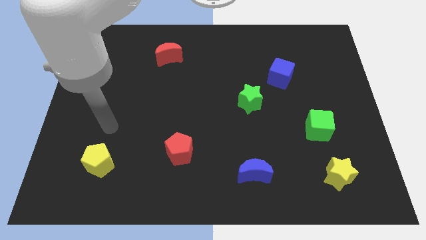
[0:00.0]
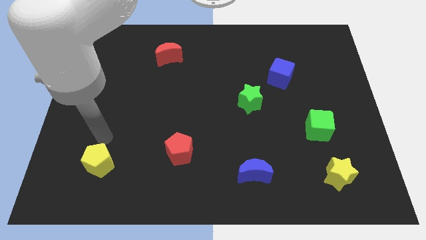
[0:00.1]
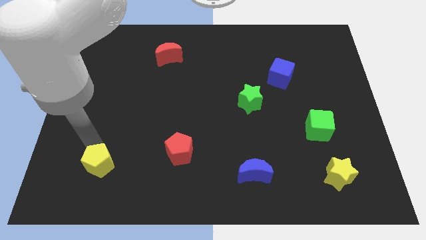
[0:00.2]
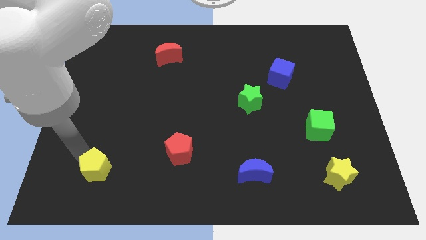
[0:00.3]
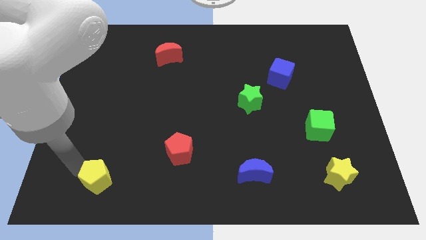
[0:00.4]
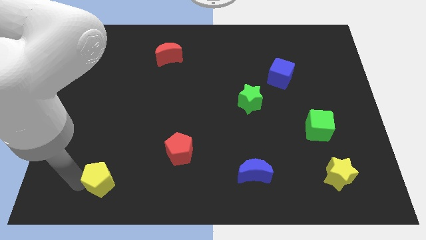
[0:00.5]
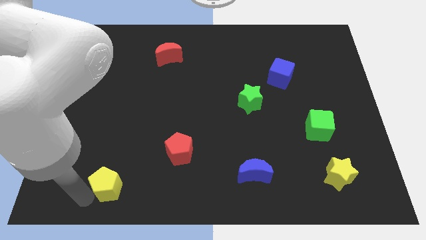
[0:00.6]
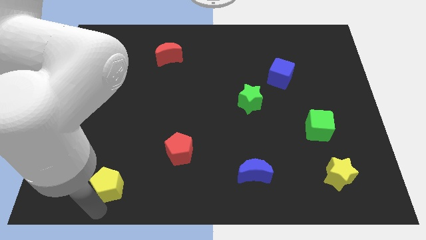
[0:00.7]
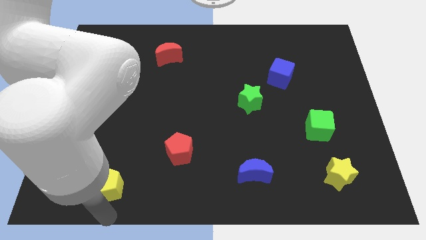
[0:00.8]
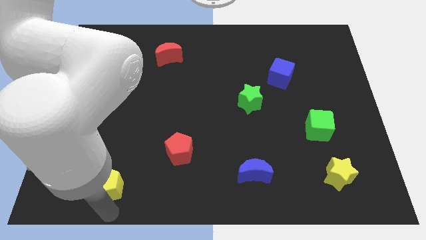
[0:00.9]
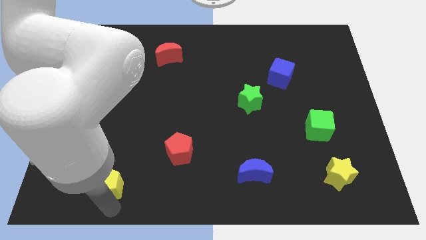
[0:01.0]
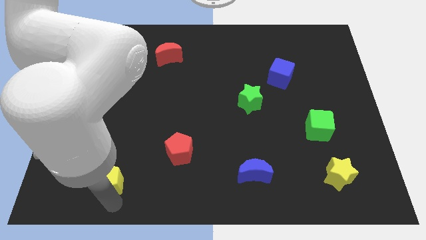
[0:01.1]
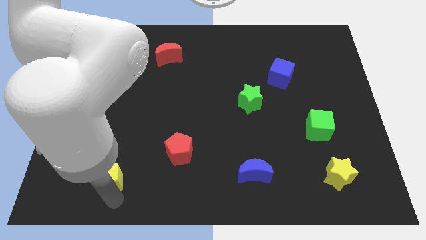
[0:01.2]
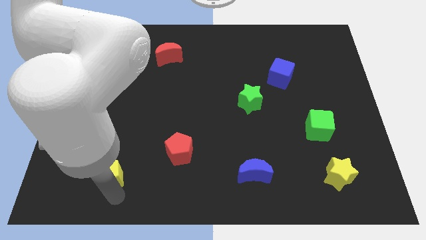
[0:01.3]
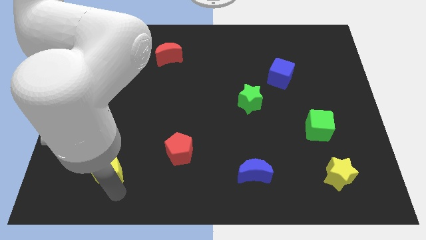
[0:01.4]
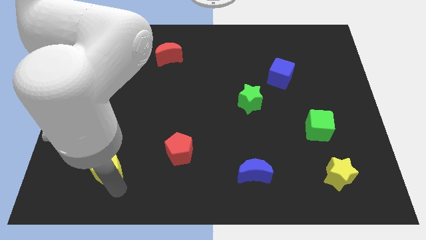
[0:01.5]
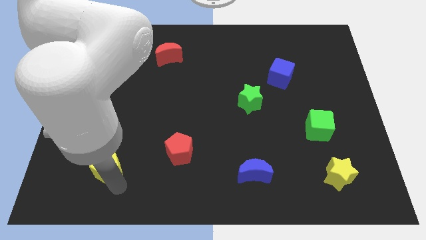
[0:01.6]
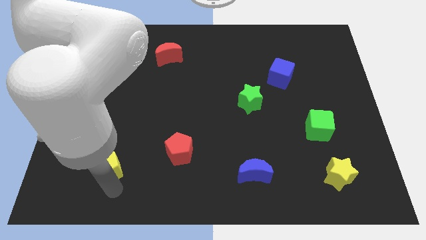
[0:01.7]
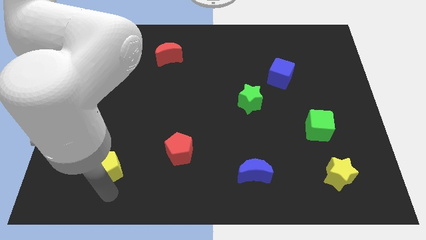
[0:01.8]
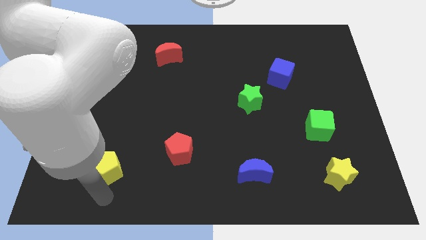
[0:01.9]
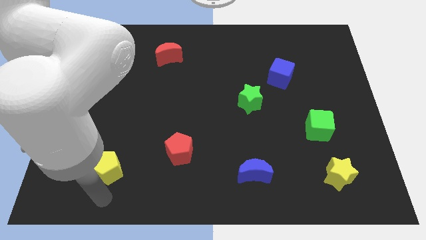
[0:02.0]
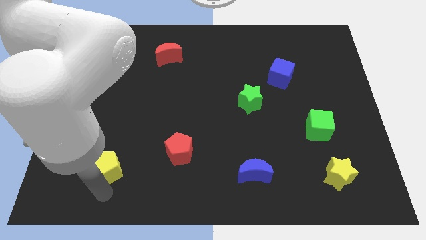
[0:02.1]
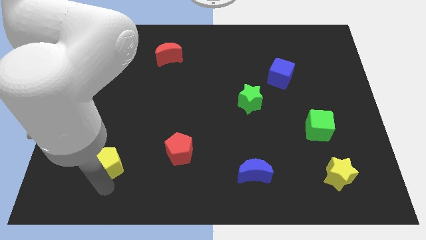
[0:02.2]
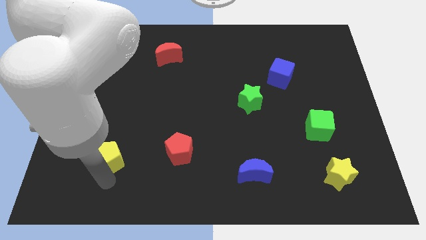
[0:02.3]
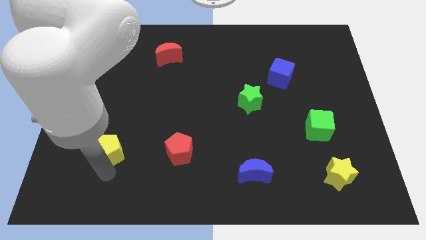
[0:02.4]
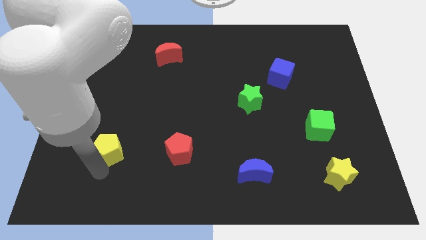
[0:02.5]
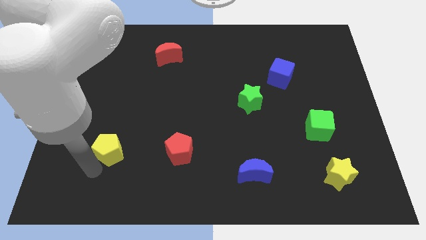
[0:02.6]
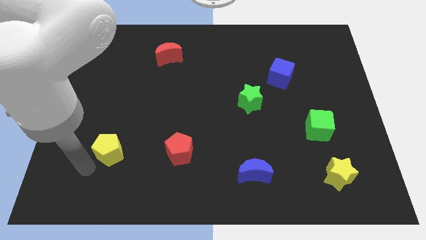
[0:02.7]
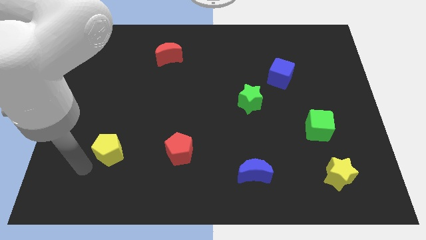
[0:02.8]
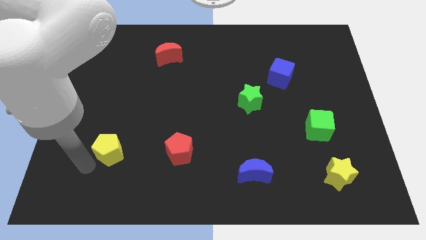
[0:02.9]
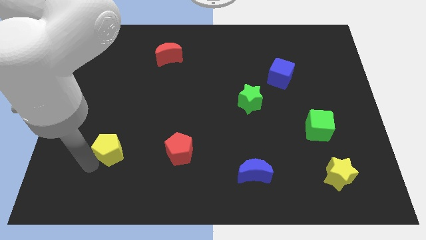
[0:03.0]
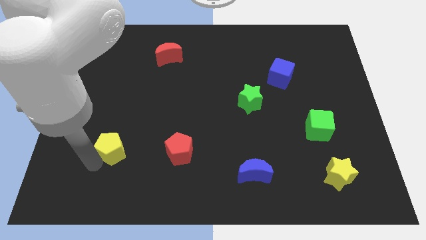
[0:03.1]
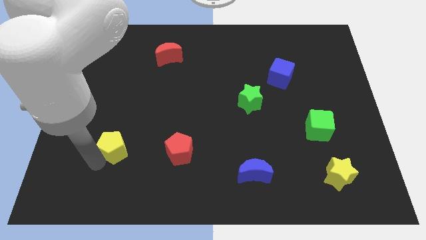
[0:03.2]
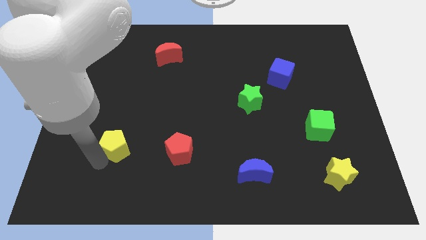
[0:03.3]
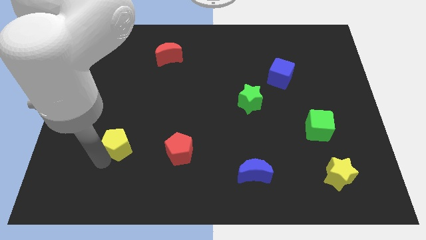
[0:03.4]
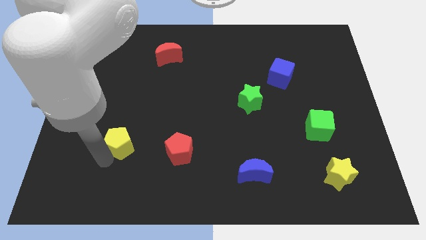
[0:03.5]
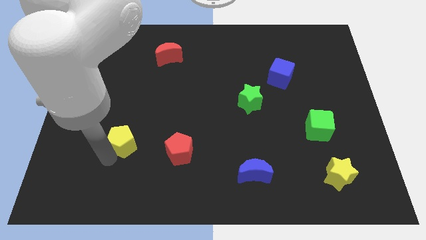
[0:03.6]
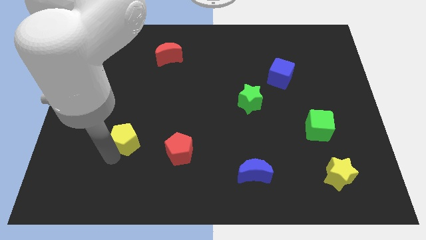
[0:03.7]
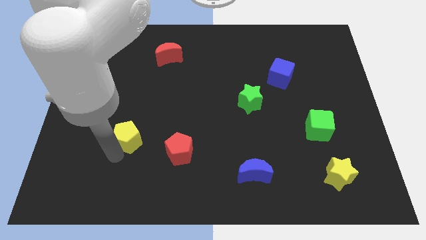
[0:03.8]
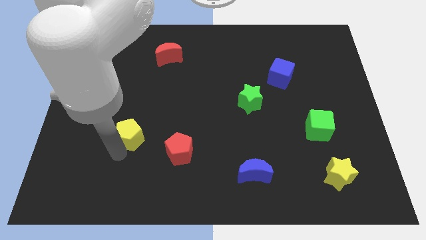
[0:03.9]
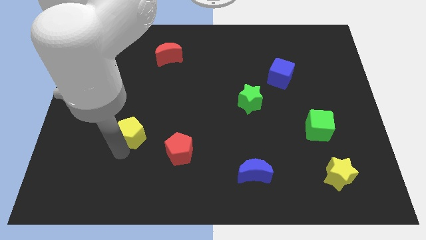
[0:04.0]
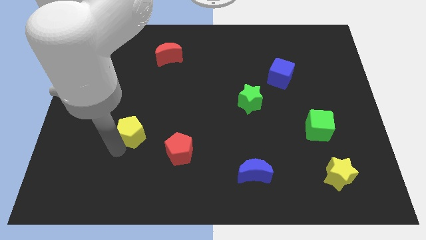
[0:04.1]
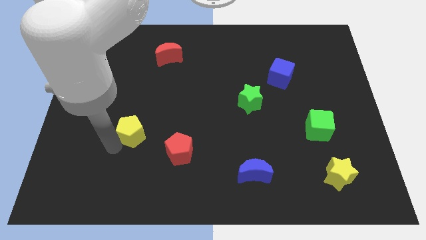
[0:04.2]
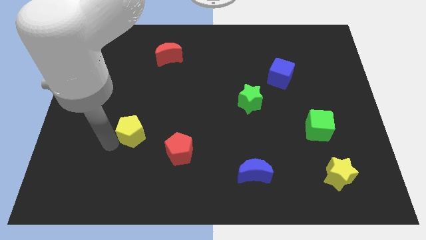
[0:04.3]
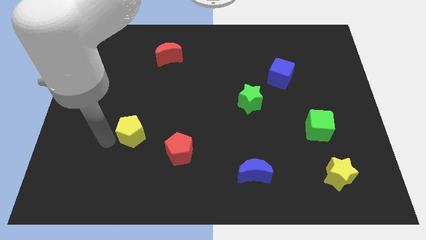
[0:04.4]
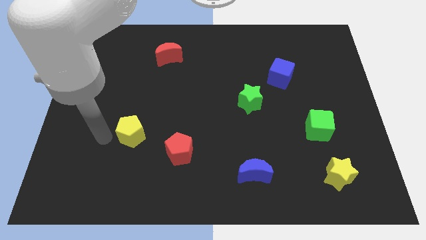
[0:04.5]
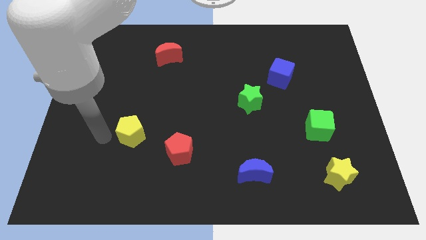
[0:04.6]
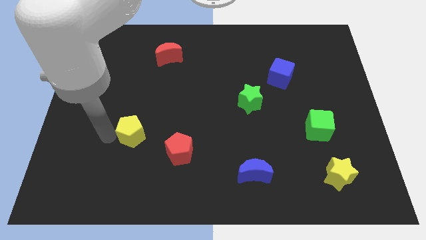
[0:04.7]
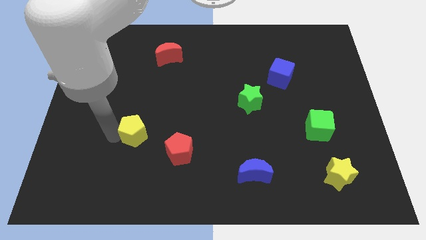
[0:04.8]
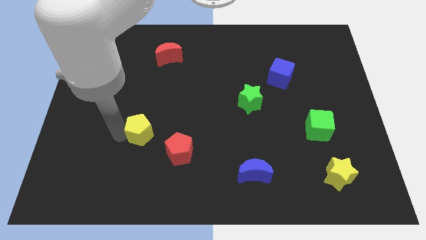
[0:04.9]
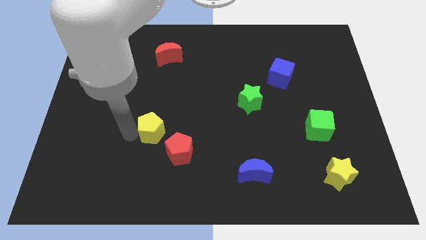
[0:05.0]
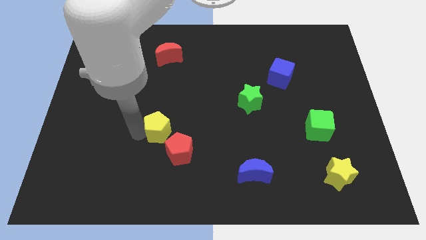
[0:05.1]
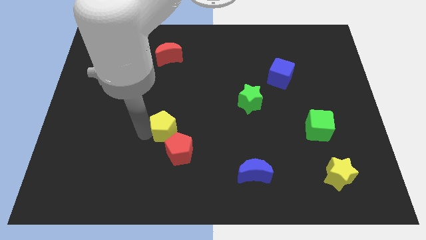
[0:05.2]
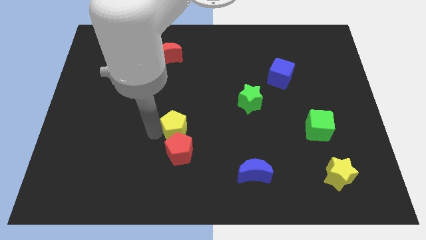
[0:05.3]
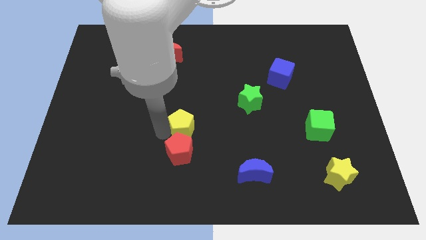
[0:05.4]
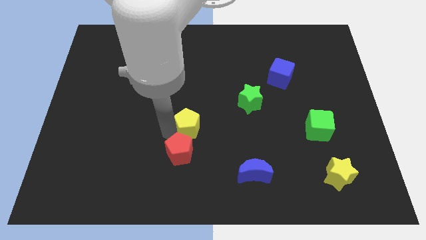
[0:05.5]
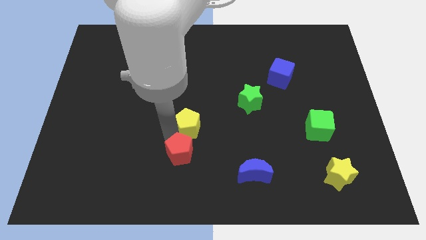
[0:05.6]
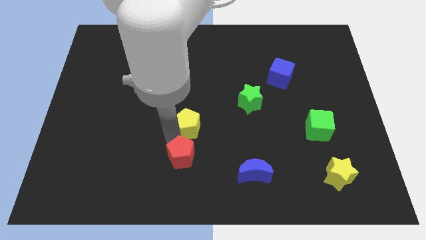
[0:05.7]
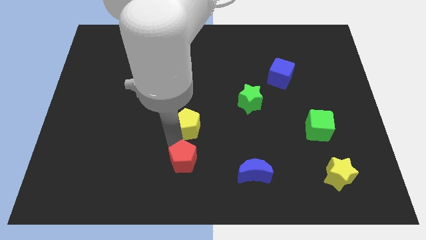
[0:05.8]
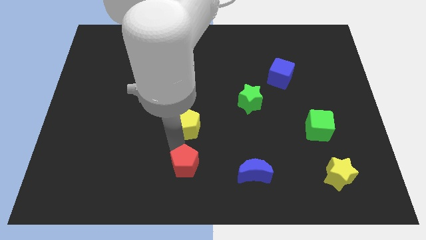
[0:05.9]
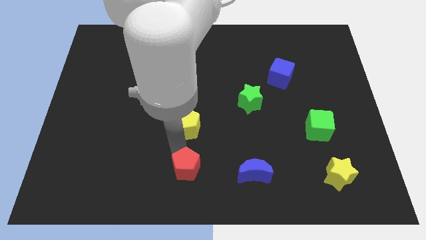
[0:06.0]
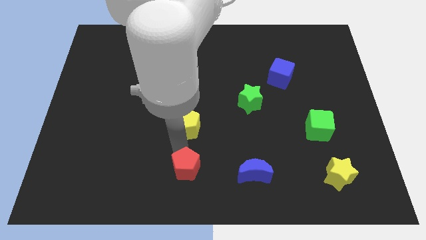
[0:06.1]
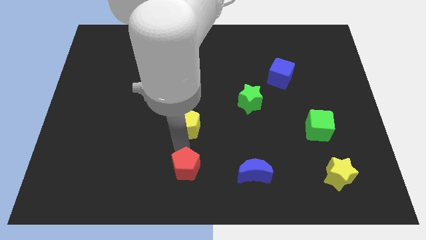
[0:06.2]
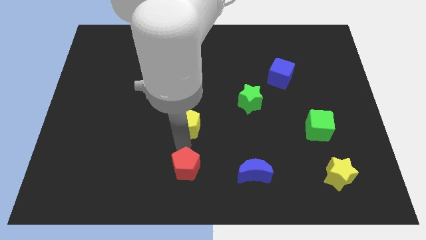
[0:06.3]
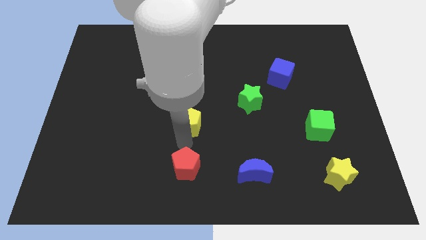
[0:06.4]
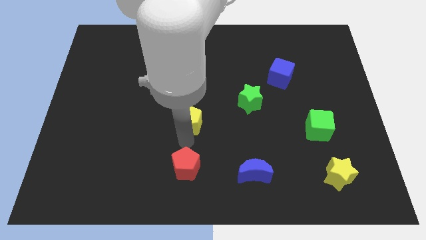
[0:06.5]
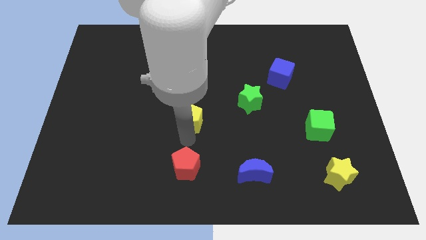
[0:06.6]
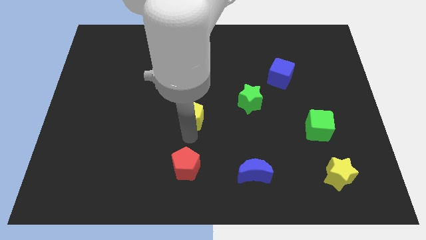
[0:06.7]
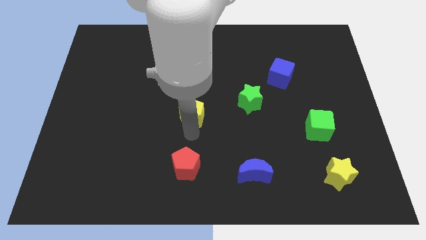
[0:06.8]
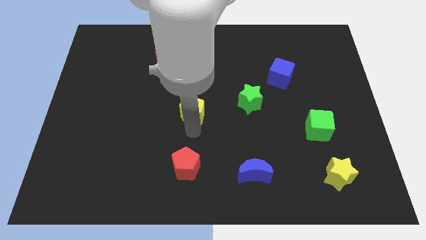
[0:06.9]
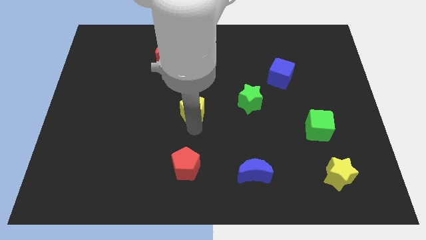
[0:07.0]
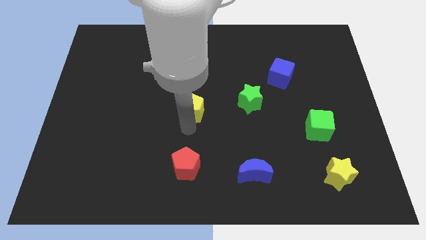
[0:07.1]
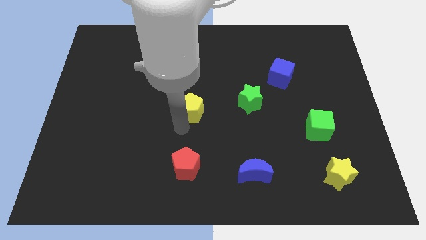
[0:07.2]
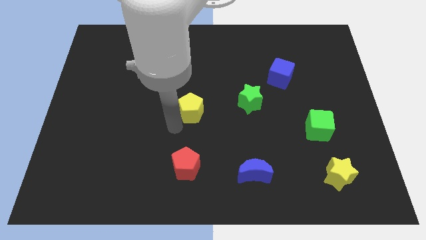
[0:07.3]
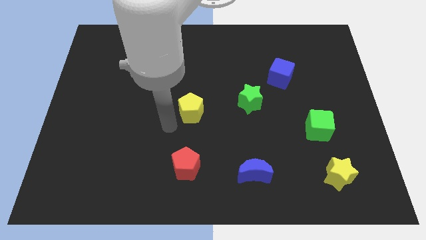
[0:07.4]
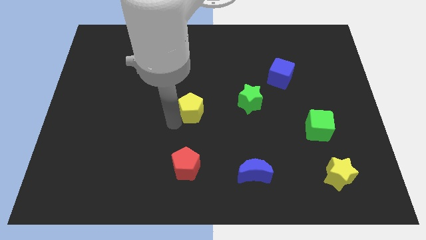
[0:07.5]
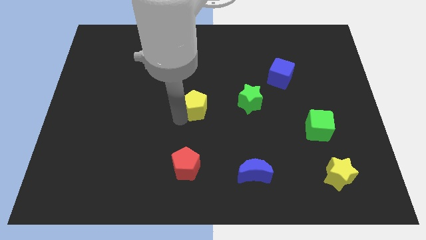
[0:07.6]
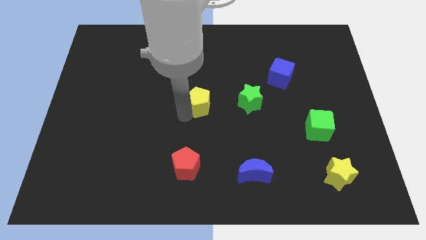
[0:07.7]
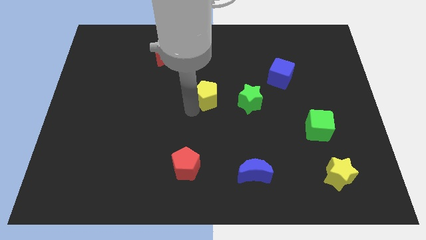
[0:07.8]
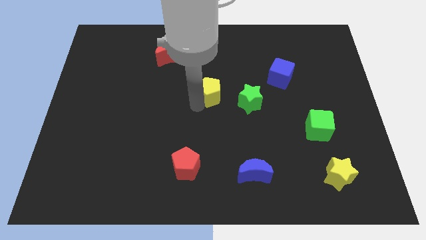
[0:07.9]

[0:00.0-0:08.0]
push the yellow pentagon to the top left of the green star
